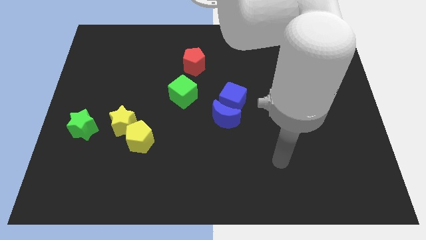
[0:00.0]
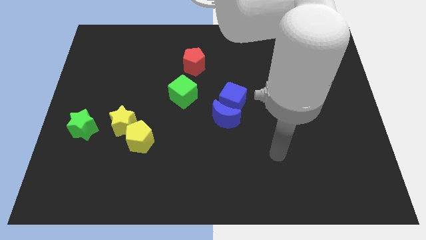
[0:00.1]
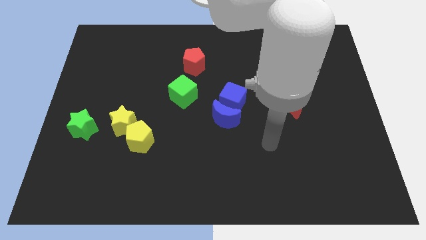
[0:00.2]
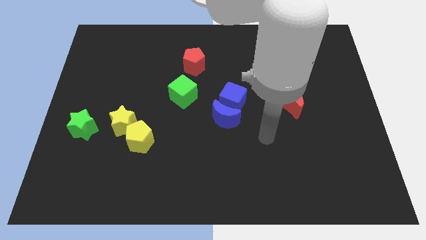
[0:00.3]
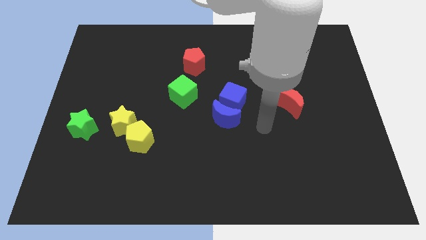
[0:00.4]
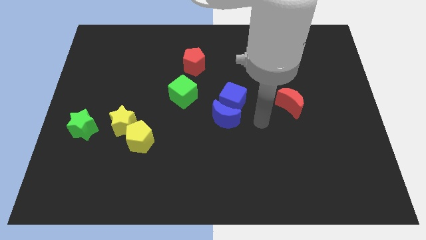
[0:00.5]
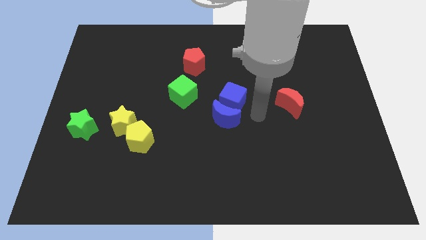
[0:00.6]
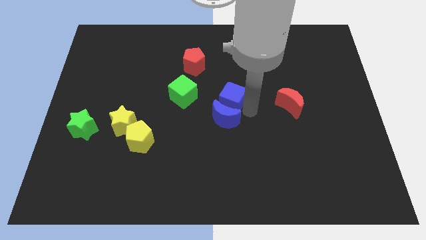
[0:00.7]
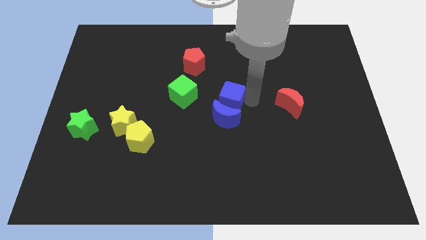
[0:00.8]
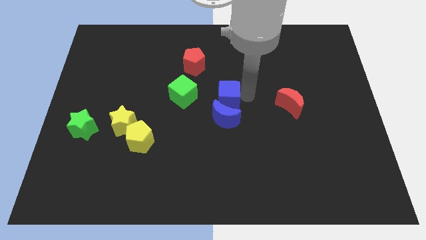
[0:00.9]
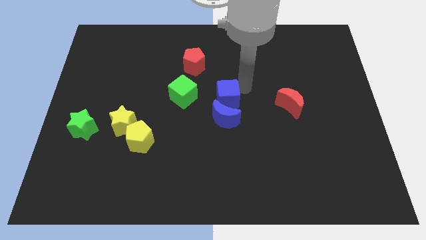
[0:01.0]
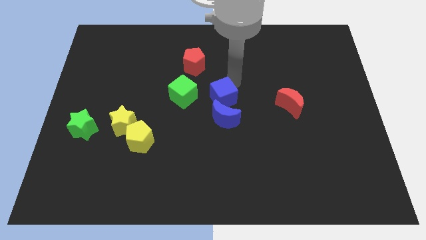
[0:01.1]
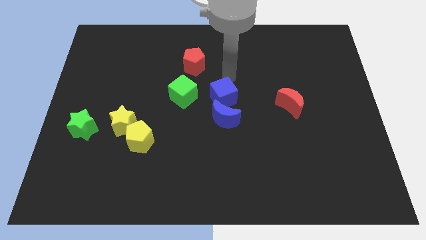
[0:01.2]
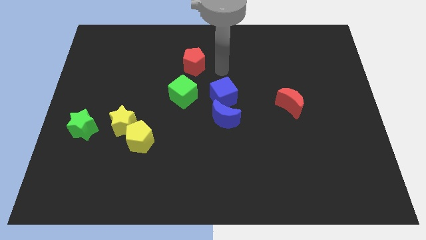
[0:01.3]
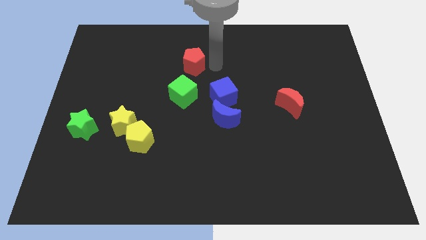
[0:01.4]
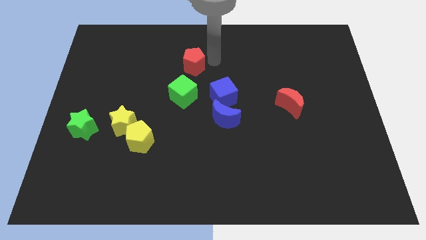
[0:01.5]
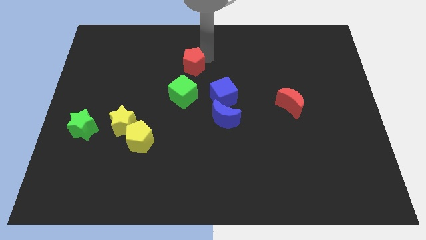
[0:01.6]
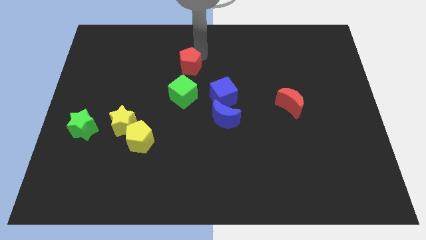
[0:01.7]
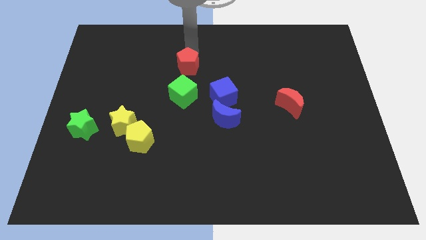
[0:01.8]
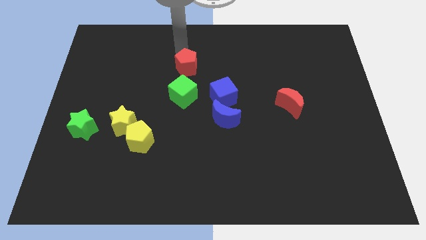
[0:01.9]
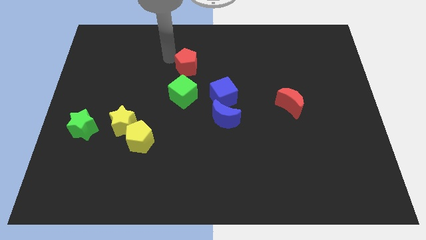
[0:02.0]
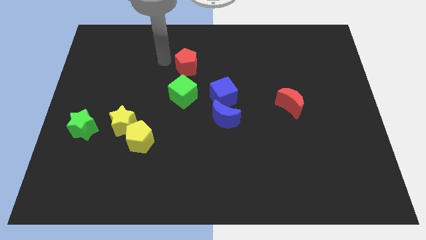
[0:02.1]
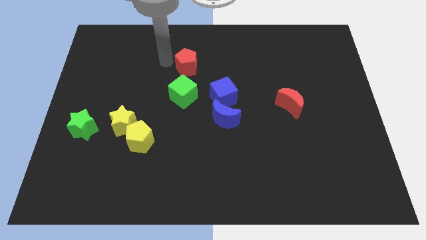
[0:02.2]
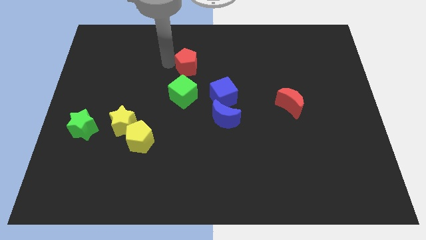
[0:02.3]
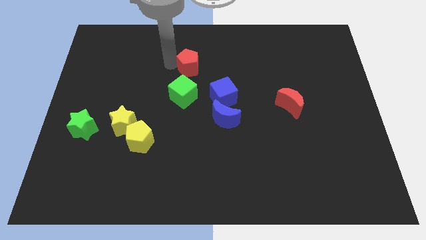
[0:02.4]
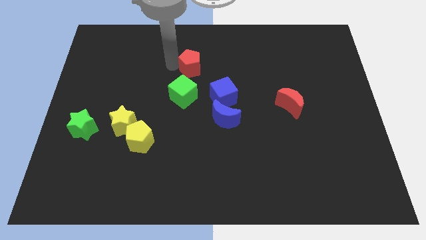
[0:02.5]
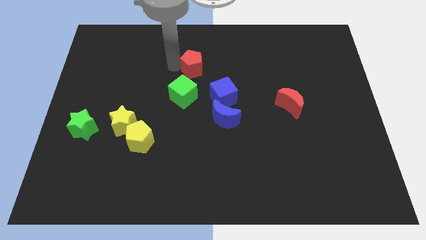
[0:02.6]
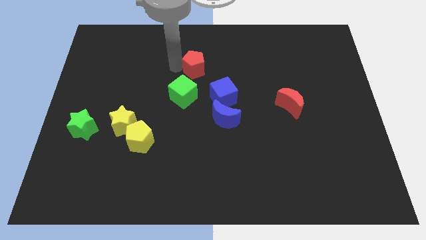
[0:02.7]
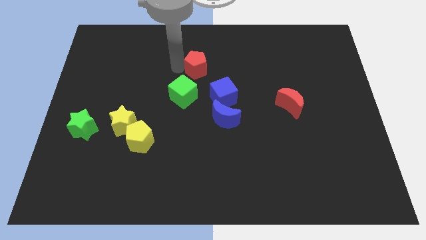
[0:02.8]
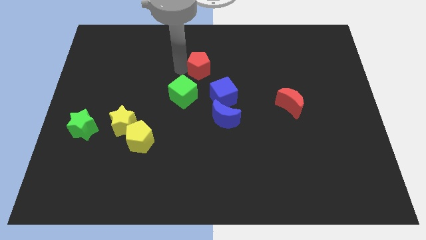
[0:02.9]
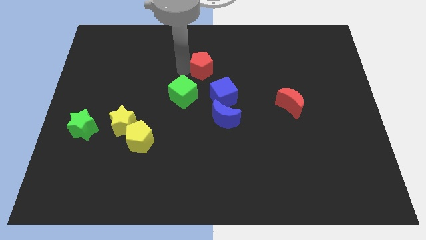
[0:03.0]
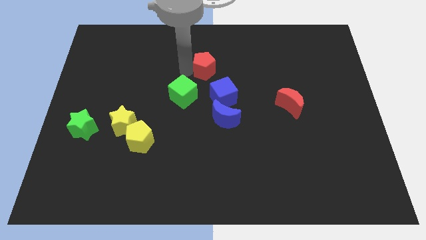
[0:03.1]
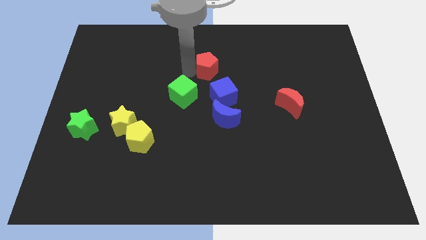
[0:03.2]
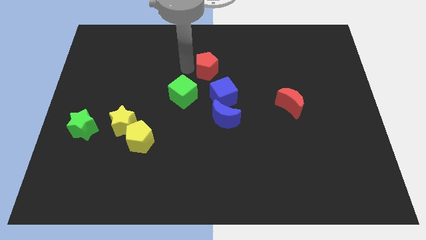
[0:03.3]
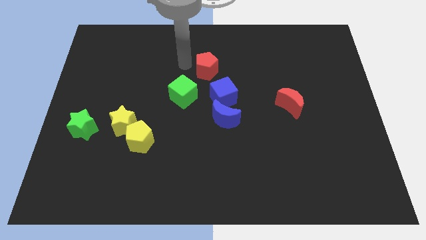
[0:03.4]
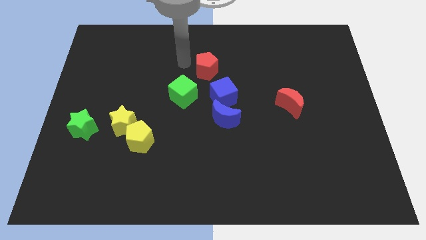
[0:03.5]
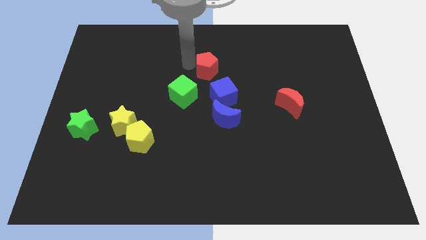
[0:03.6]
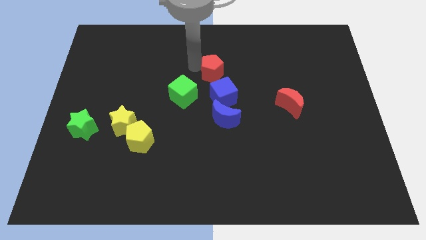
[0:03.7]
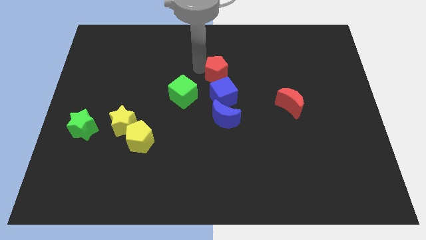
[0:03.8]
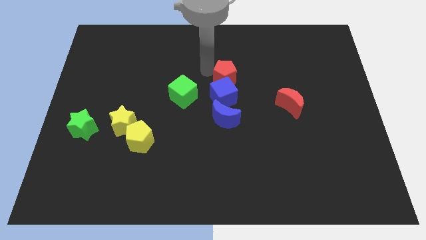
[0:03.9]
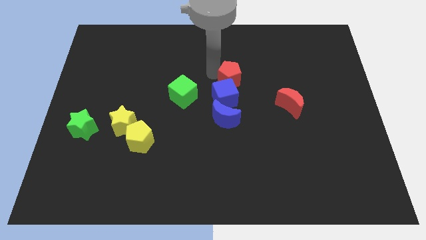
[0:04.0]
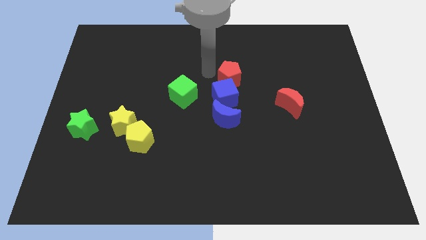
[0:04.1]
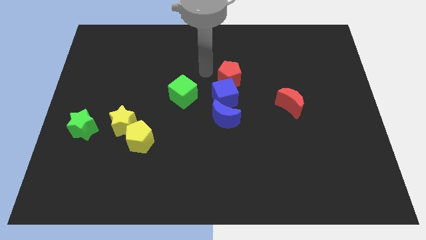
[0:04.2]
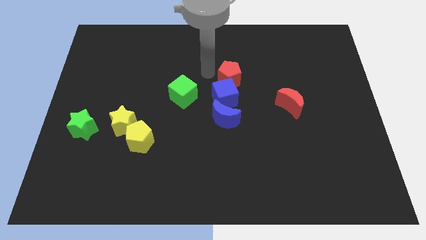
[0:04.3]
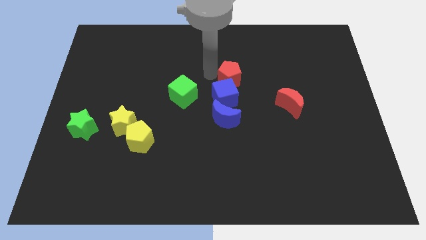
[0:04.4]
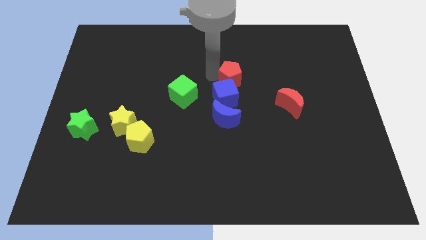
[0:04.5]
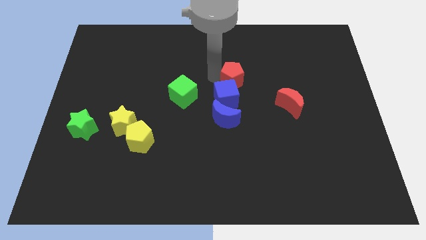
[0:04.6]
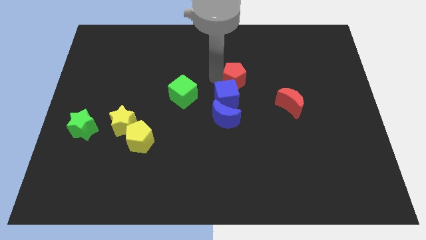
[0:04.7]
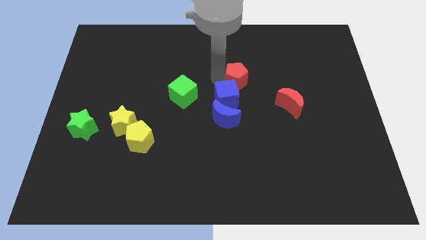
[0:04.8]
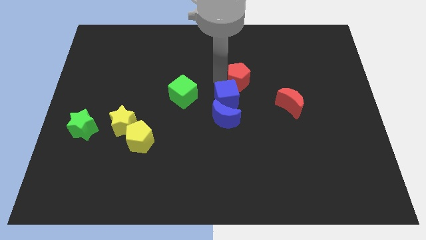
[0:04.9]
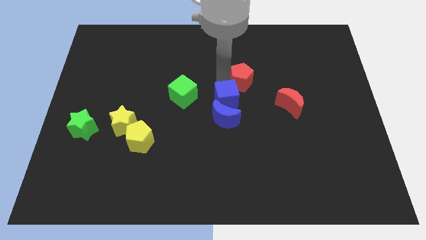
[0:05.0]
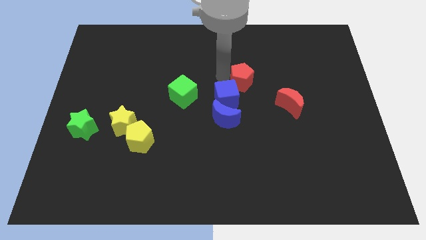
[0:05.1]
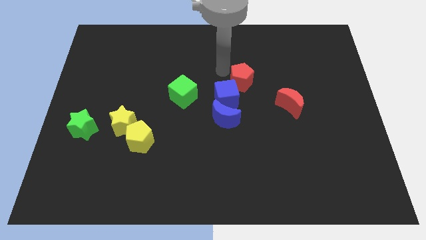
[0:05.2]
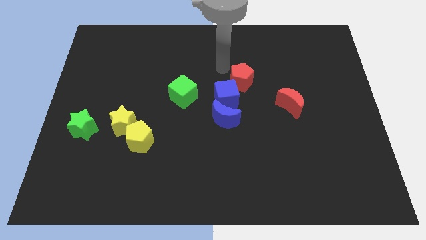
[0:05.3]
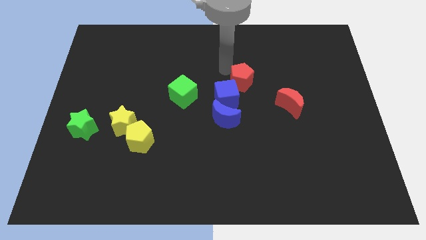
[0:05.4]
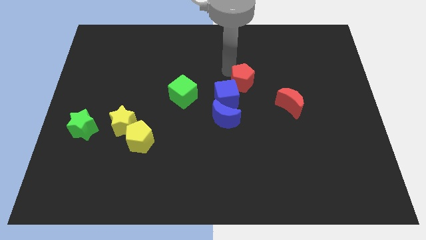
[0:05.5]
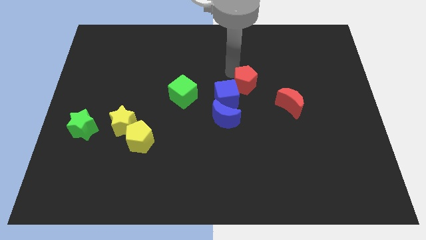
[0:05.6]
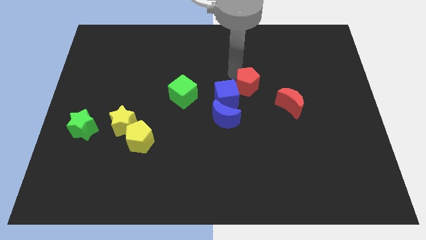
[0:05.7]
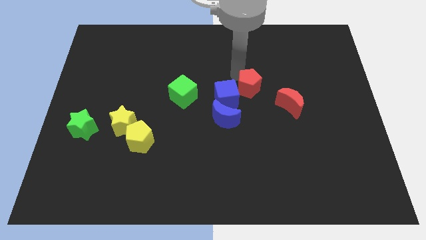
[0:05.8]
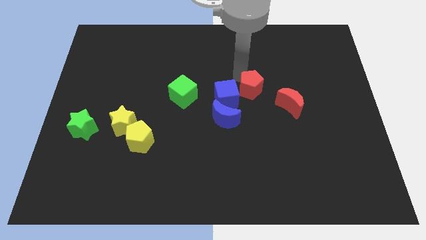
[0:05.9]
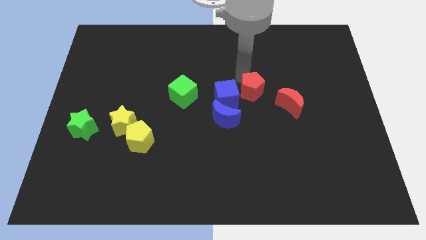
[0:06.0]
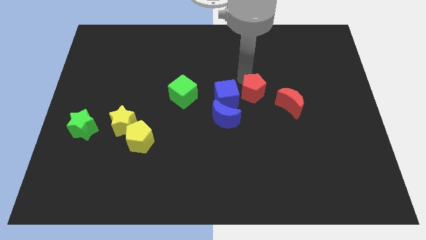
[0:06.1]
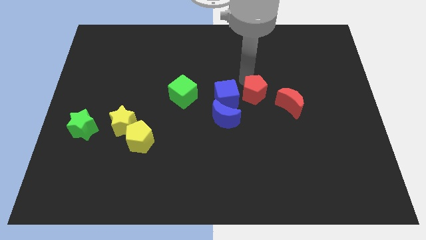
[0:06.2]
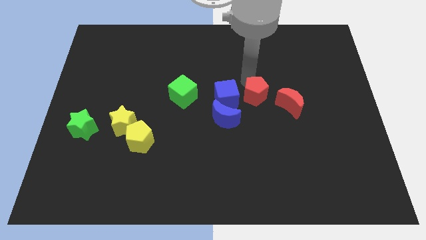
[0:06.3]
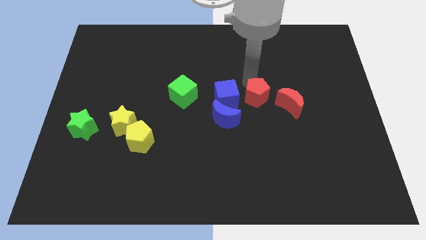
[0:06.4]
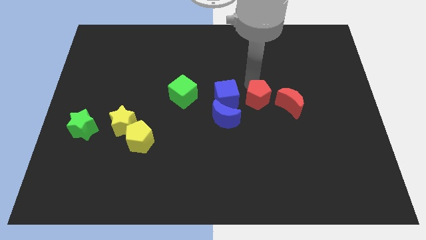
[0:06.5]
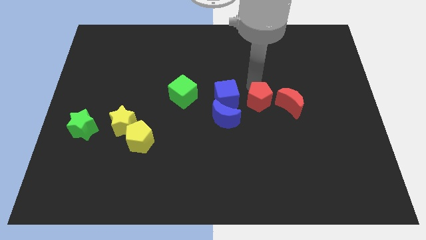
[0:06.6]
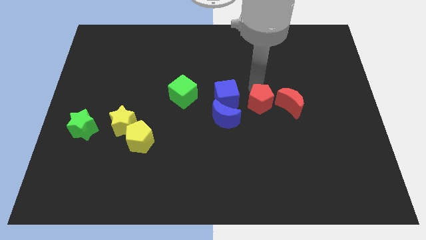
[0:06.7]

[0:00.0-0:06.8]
push the red pentagon downwards and then to the right

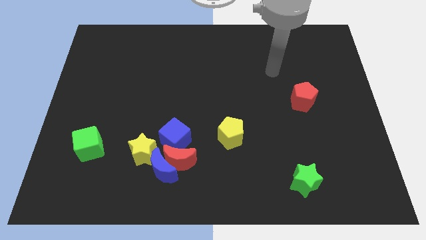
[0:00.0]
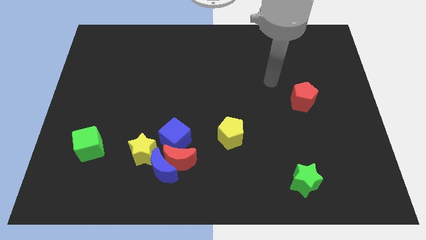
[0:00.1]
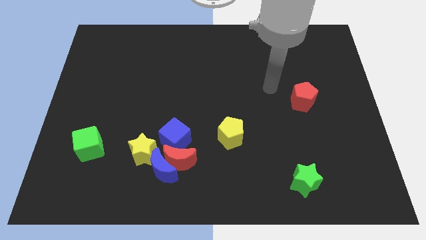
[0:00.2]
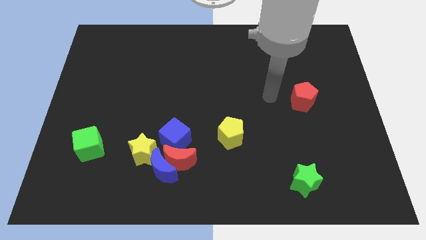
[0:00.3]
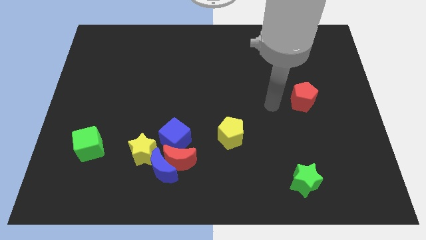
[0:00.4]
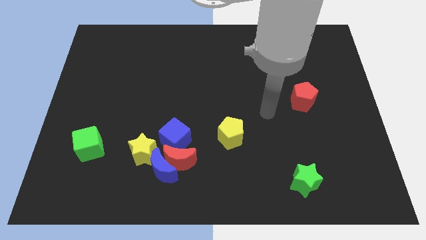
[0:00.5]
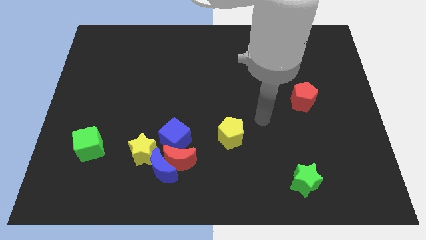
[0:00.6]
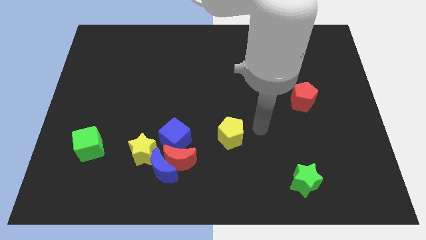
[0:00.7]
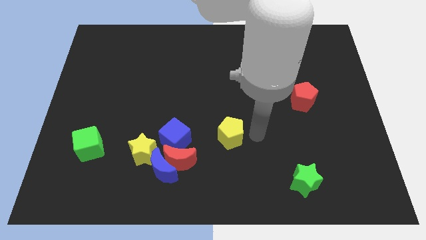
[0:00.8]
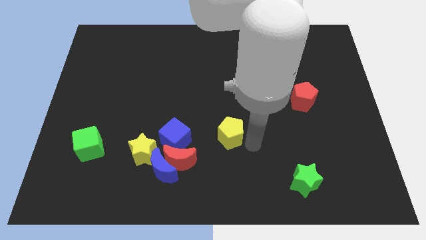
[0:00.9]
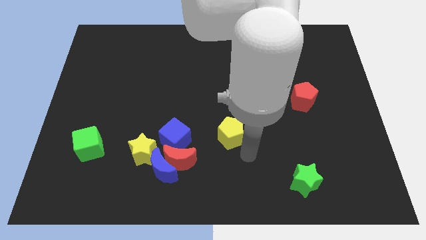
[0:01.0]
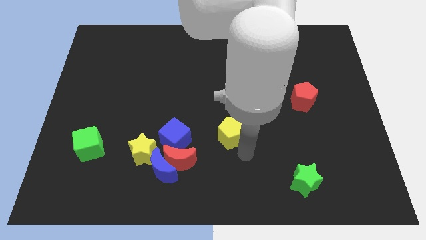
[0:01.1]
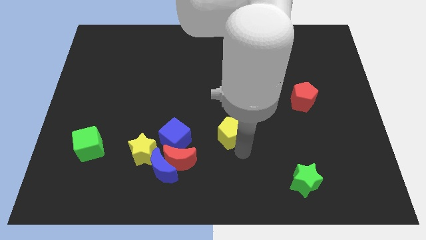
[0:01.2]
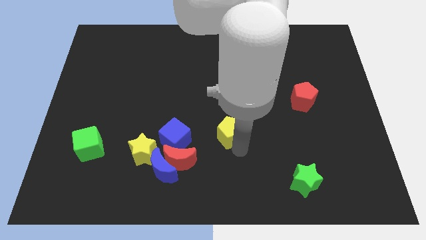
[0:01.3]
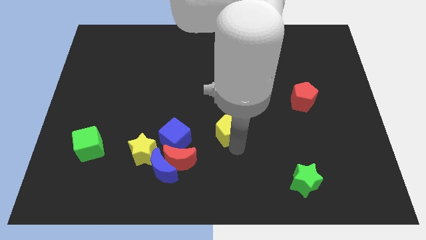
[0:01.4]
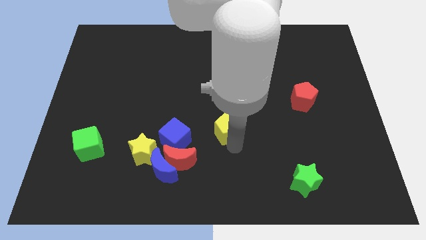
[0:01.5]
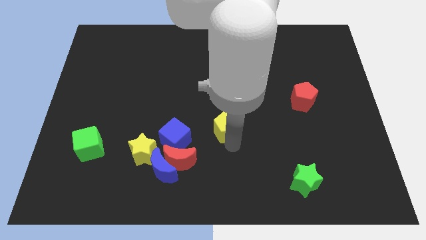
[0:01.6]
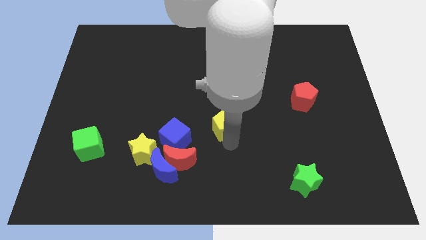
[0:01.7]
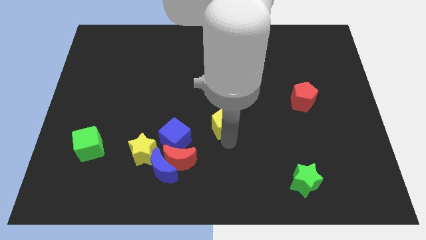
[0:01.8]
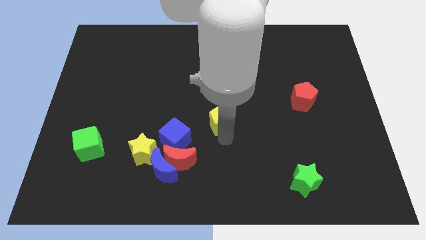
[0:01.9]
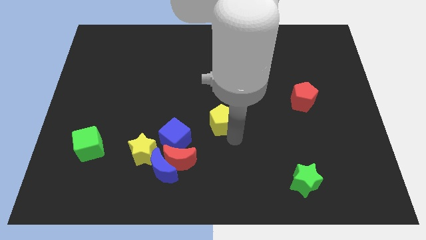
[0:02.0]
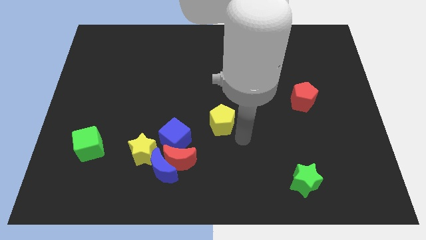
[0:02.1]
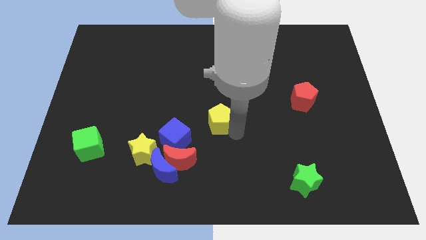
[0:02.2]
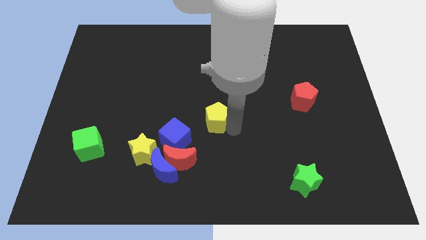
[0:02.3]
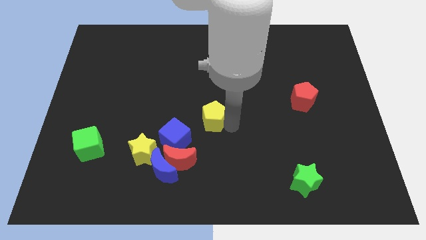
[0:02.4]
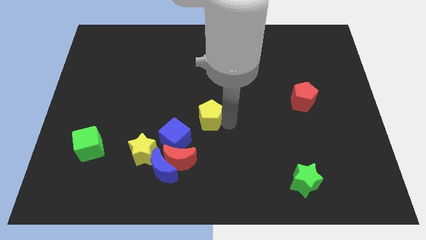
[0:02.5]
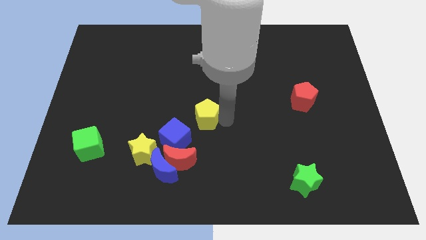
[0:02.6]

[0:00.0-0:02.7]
slightly move the yellow pentagon upwards and then to the left
